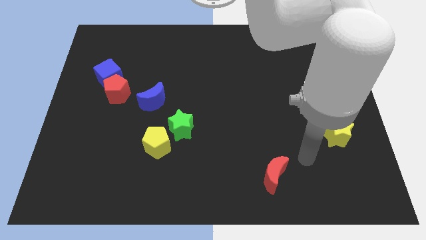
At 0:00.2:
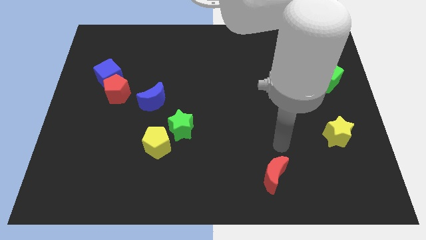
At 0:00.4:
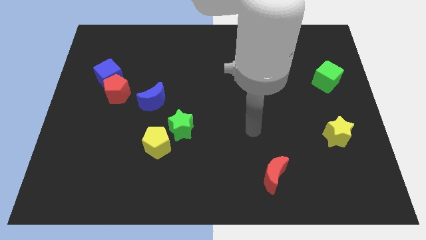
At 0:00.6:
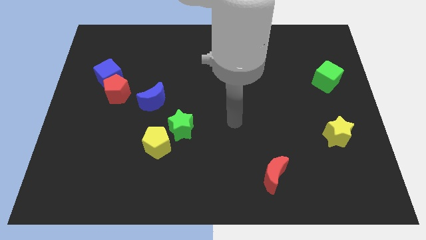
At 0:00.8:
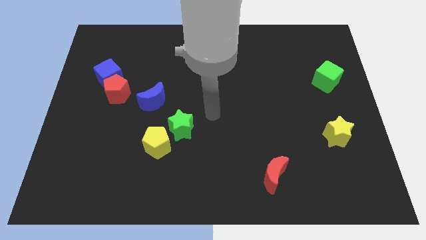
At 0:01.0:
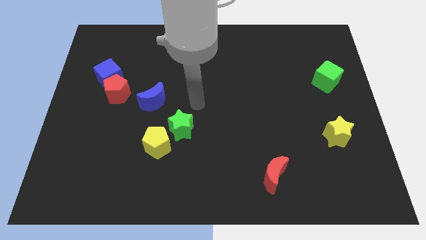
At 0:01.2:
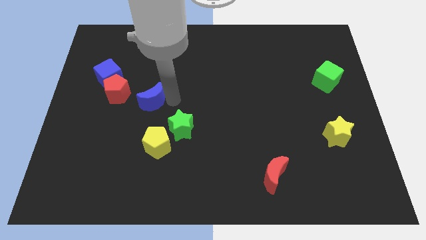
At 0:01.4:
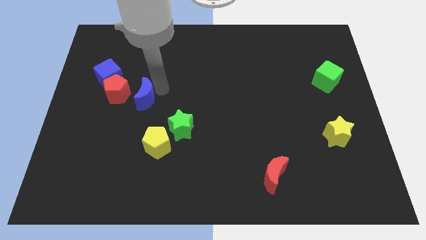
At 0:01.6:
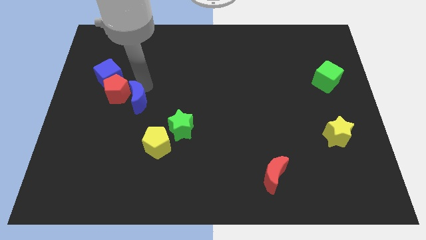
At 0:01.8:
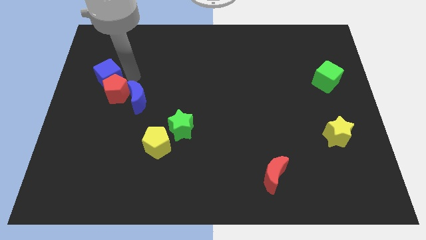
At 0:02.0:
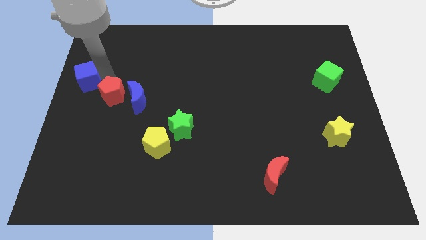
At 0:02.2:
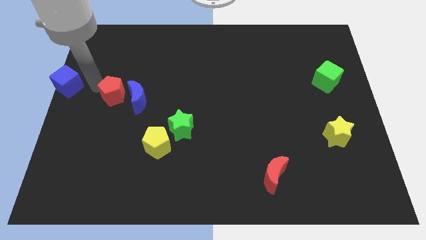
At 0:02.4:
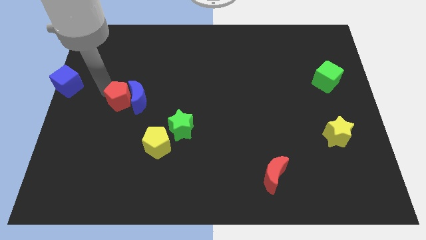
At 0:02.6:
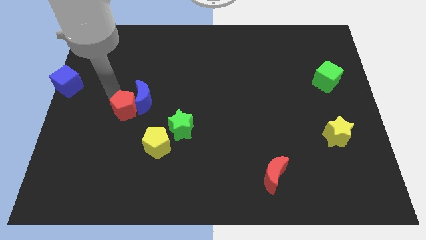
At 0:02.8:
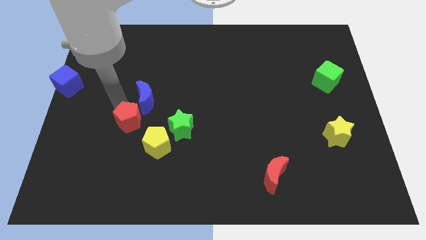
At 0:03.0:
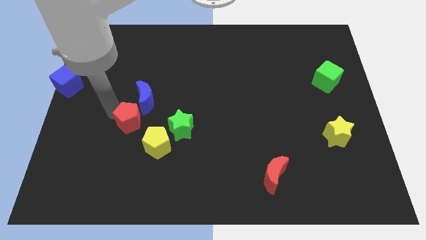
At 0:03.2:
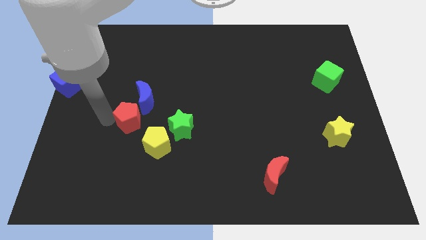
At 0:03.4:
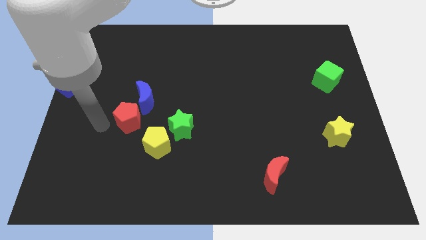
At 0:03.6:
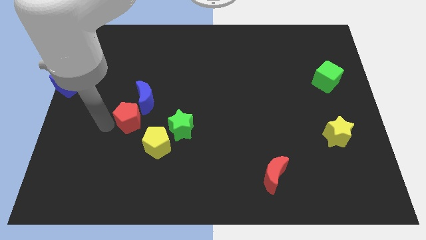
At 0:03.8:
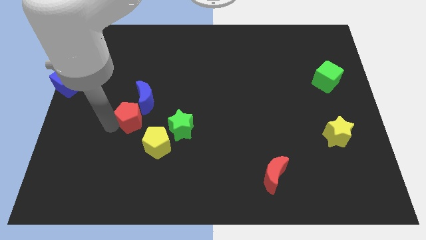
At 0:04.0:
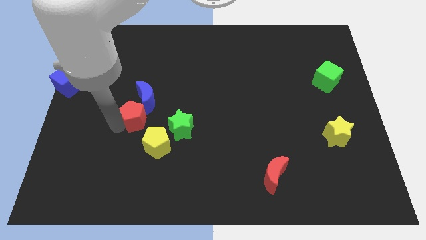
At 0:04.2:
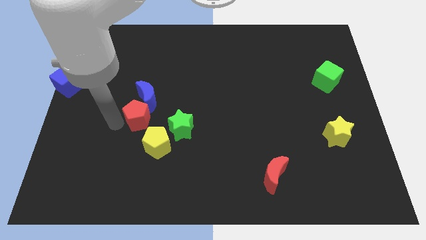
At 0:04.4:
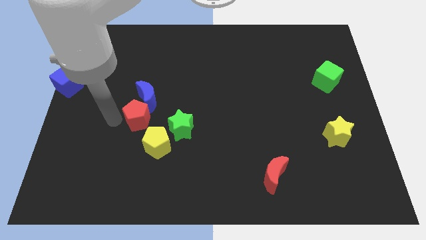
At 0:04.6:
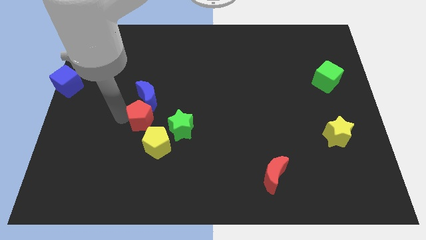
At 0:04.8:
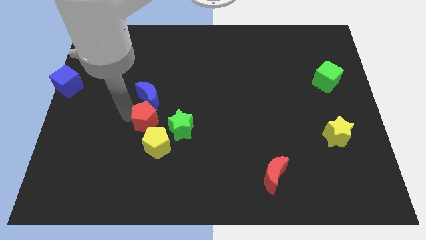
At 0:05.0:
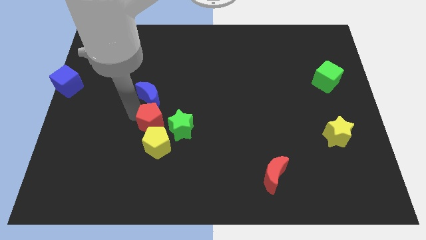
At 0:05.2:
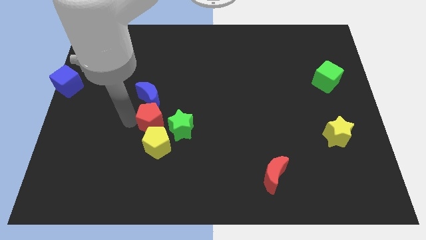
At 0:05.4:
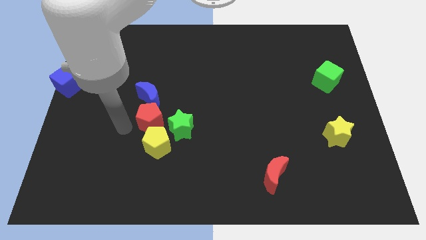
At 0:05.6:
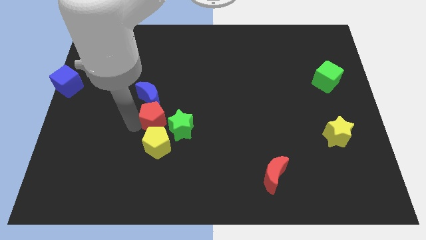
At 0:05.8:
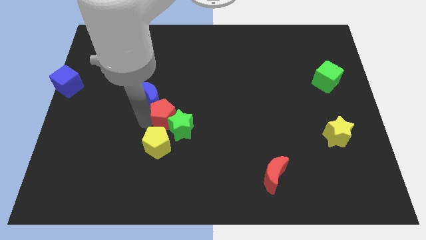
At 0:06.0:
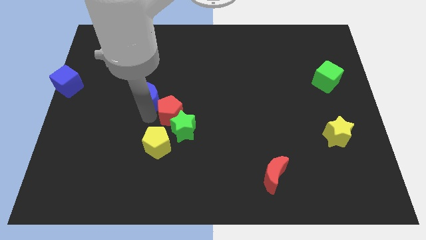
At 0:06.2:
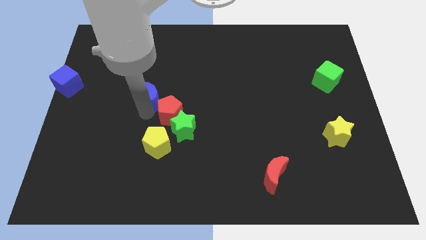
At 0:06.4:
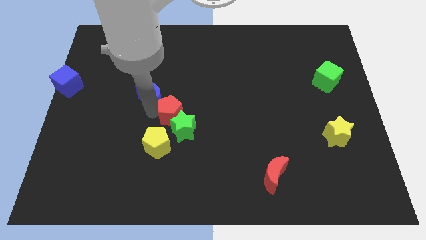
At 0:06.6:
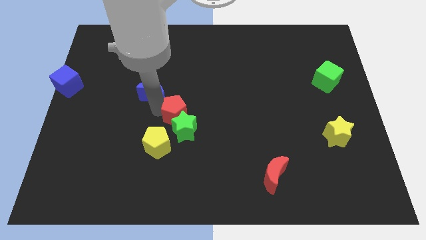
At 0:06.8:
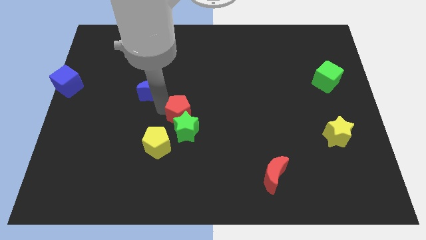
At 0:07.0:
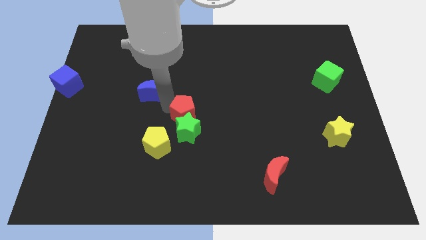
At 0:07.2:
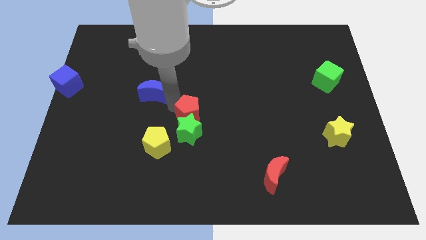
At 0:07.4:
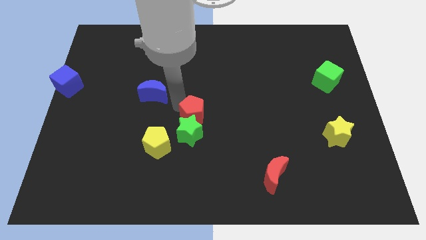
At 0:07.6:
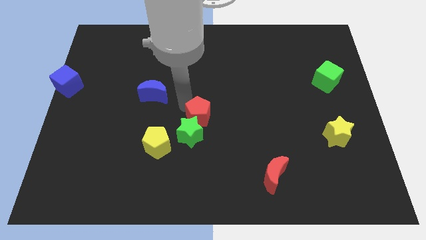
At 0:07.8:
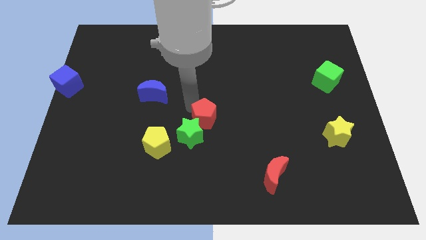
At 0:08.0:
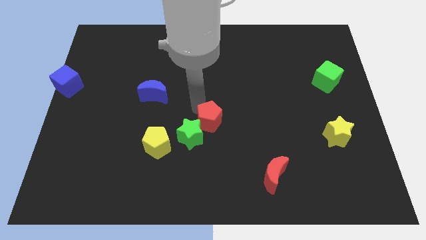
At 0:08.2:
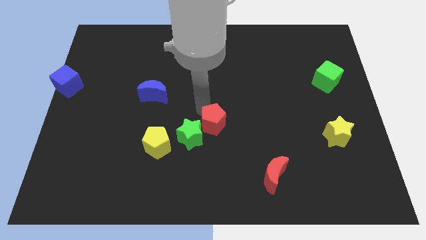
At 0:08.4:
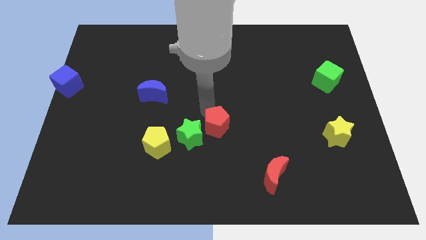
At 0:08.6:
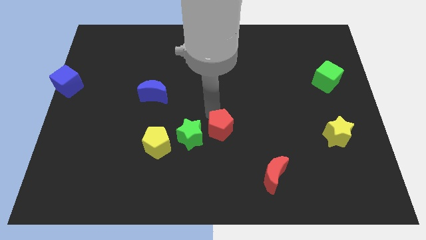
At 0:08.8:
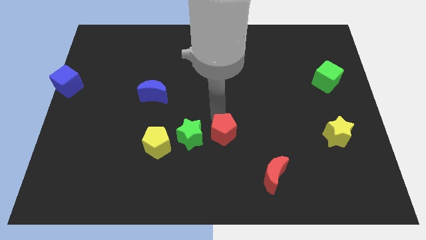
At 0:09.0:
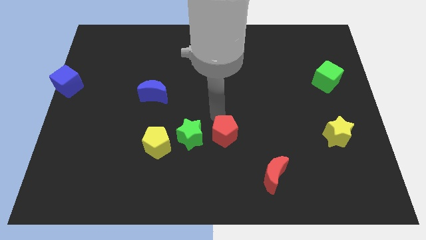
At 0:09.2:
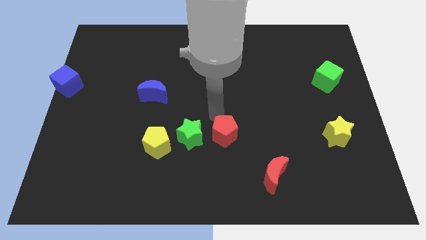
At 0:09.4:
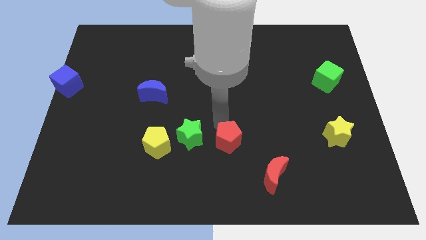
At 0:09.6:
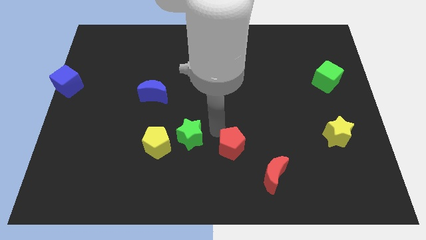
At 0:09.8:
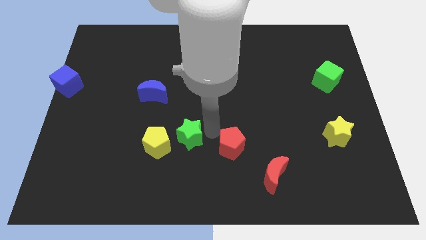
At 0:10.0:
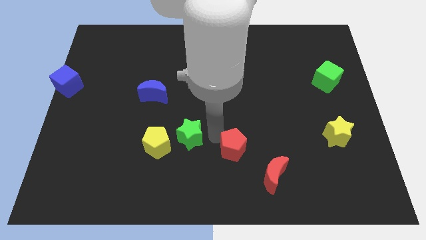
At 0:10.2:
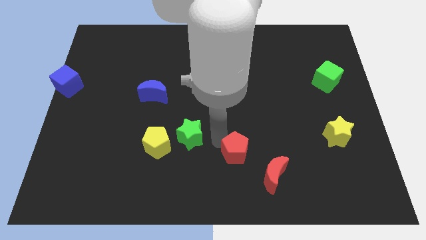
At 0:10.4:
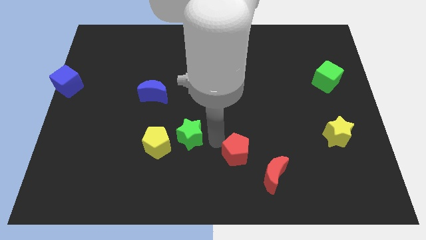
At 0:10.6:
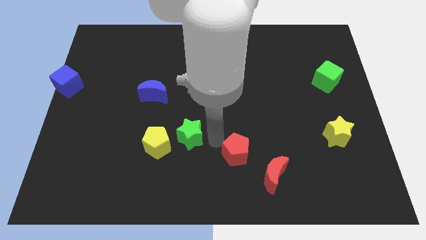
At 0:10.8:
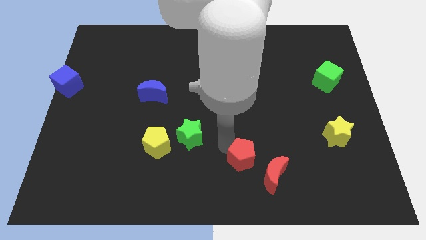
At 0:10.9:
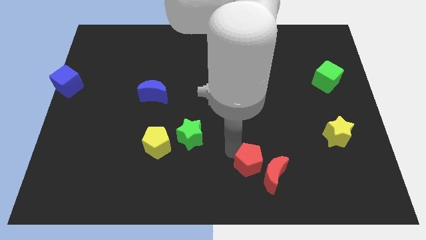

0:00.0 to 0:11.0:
slide the red pentagon towards the red moon

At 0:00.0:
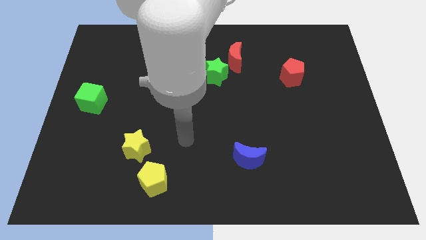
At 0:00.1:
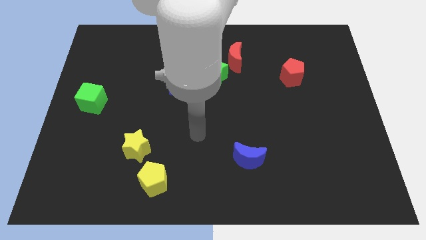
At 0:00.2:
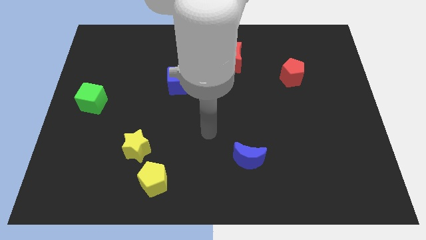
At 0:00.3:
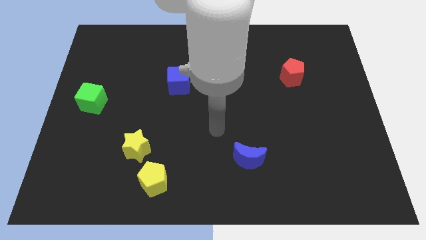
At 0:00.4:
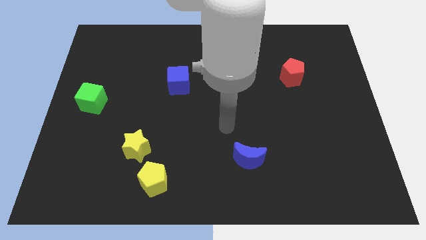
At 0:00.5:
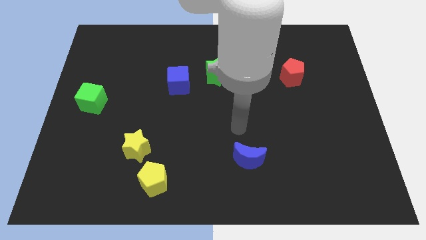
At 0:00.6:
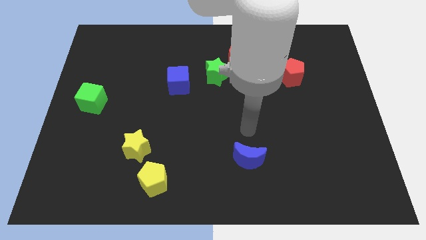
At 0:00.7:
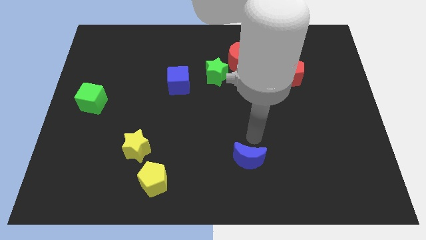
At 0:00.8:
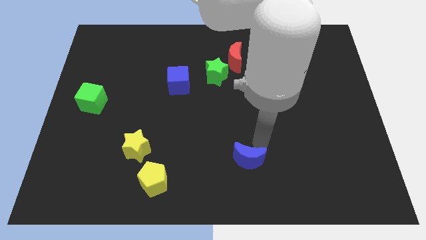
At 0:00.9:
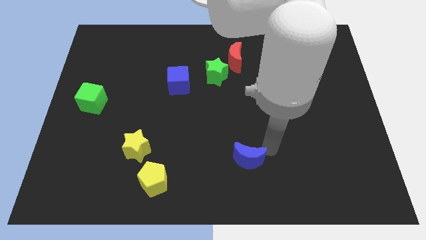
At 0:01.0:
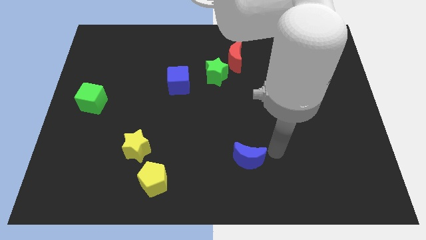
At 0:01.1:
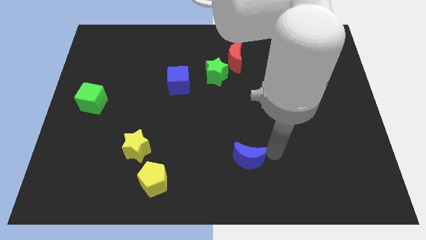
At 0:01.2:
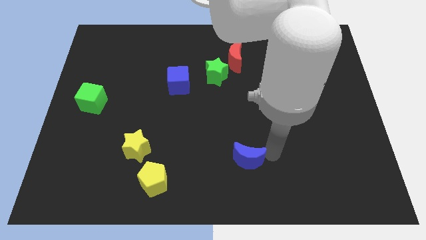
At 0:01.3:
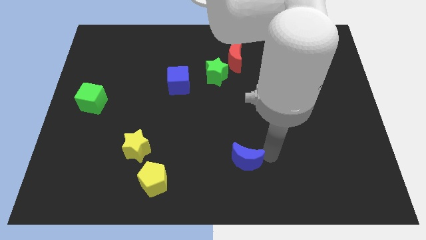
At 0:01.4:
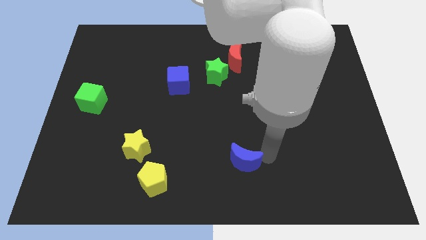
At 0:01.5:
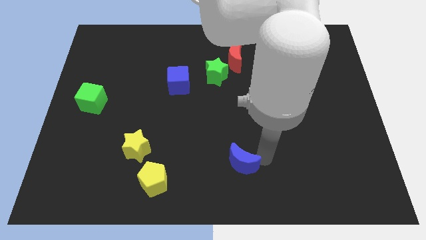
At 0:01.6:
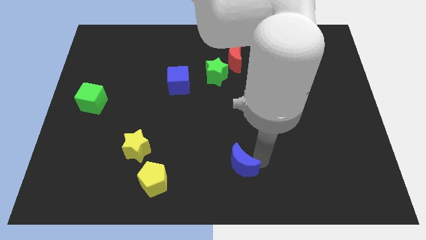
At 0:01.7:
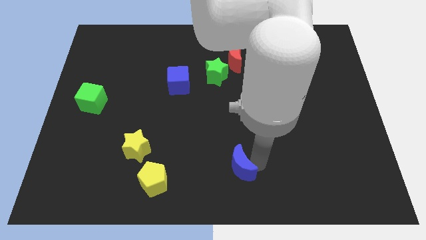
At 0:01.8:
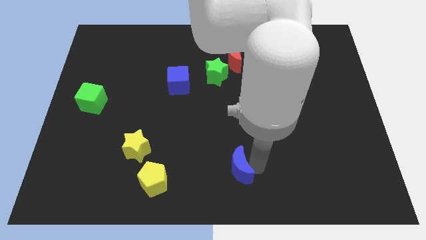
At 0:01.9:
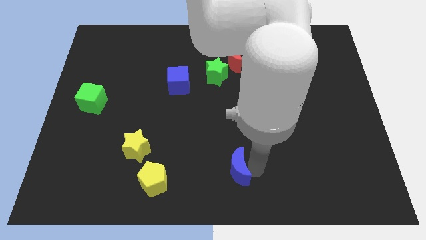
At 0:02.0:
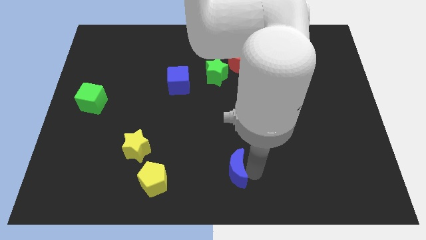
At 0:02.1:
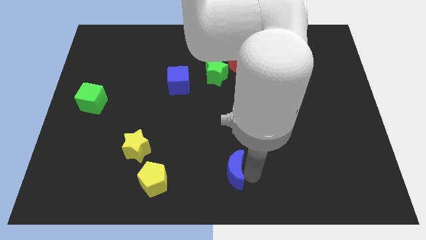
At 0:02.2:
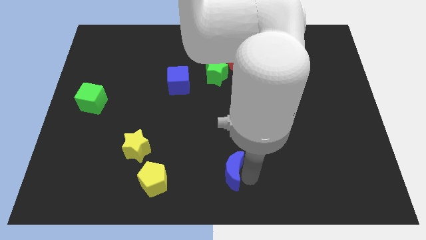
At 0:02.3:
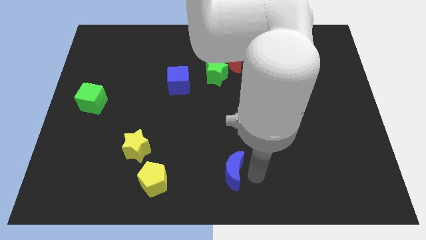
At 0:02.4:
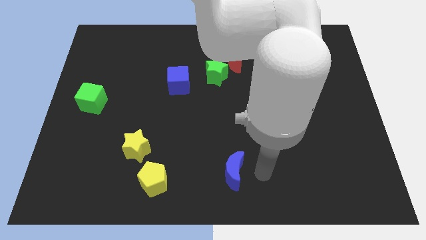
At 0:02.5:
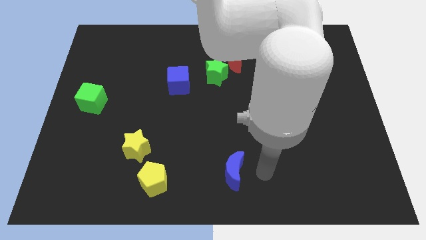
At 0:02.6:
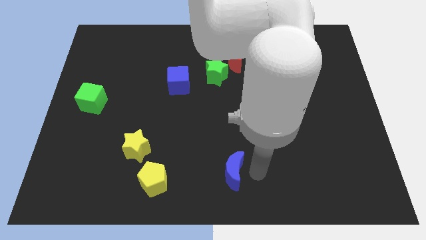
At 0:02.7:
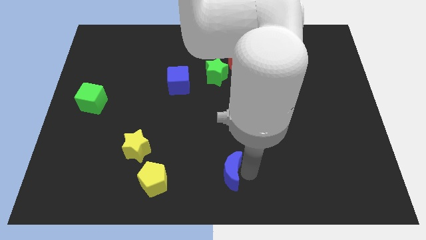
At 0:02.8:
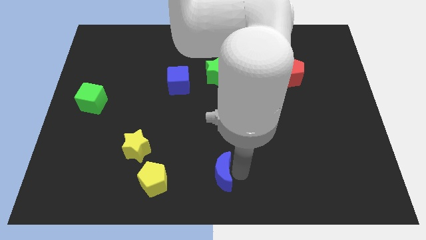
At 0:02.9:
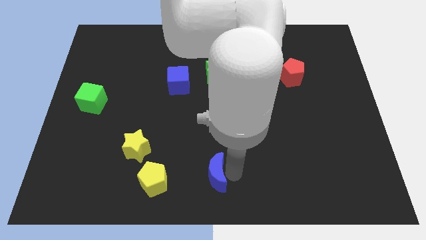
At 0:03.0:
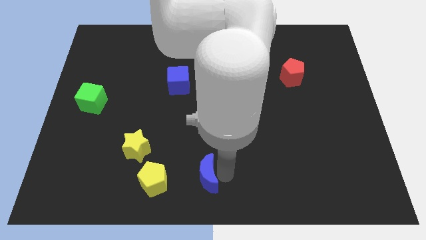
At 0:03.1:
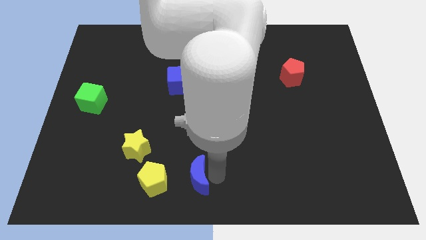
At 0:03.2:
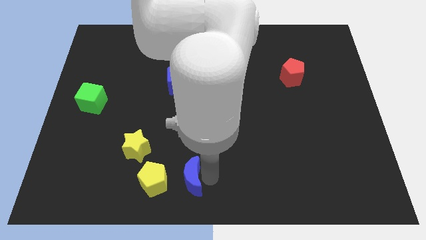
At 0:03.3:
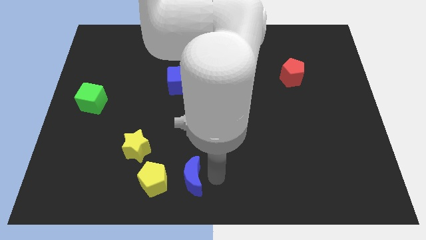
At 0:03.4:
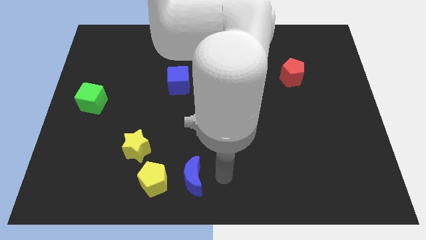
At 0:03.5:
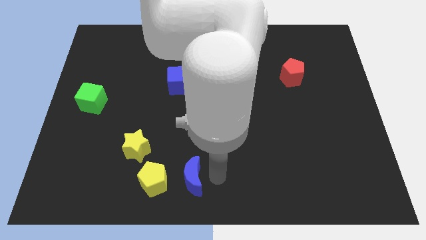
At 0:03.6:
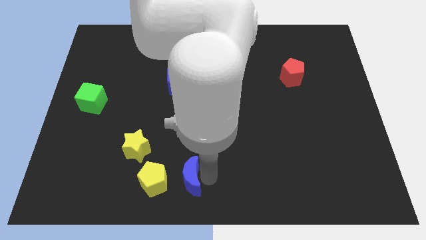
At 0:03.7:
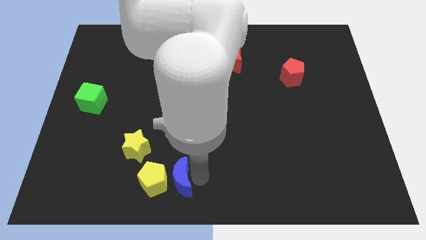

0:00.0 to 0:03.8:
put the blue moon towards the yellow pentagon
